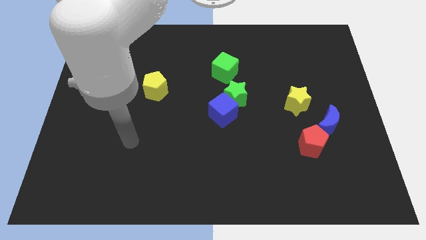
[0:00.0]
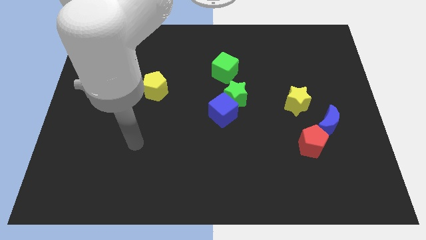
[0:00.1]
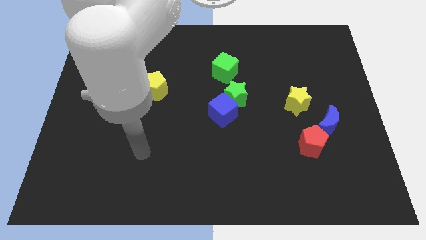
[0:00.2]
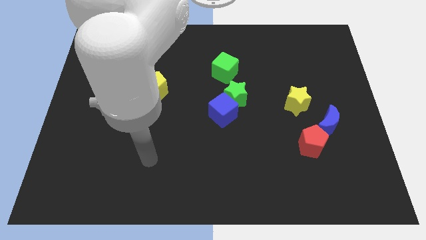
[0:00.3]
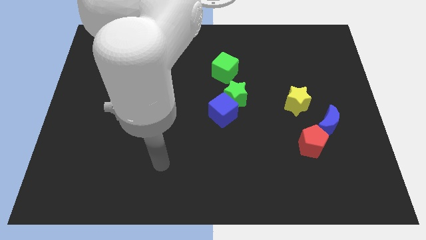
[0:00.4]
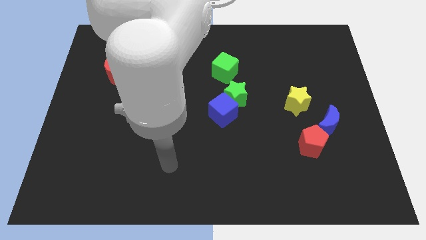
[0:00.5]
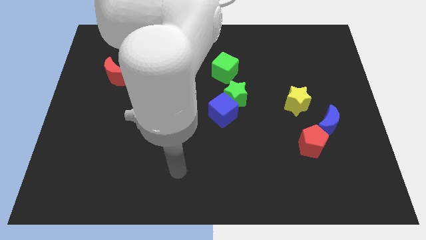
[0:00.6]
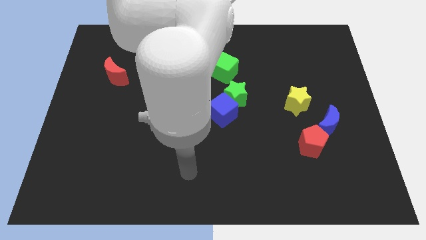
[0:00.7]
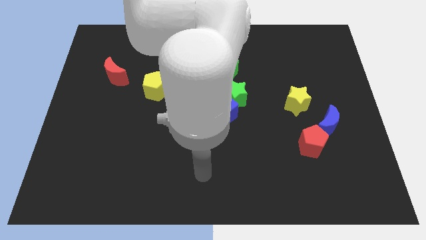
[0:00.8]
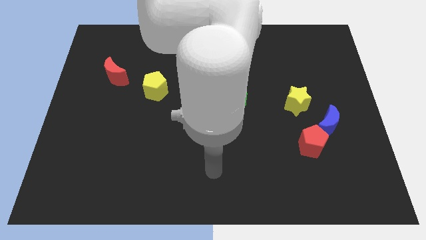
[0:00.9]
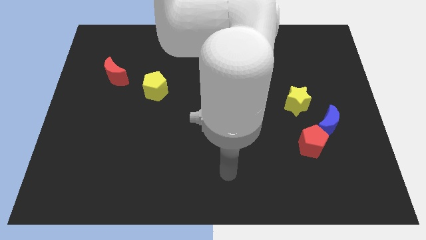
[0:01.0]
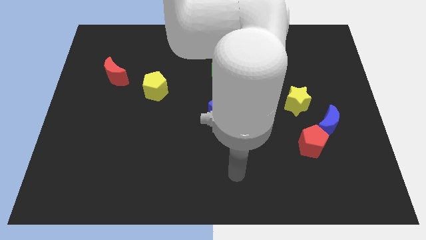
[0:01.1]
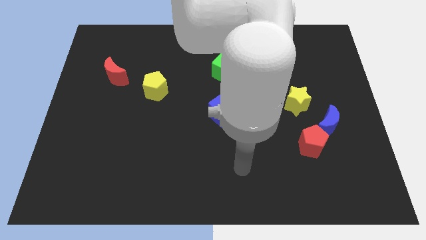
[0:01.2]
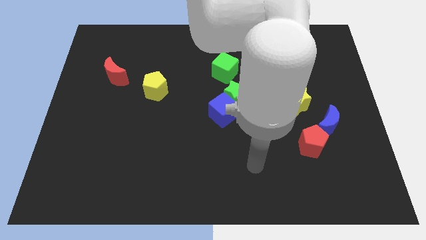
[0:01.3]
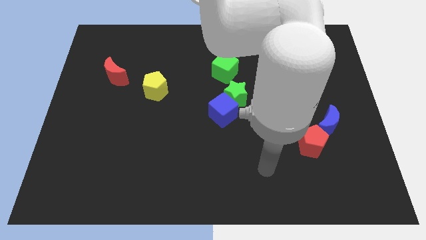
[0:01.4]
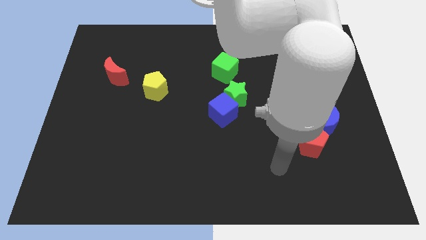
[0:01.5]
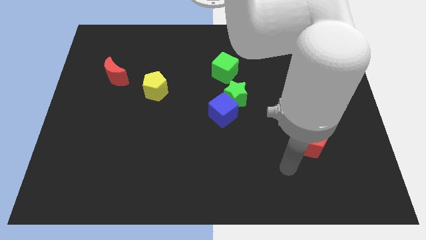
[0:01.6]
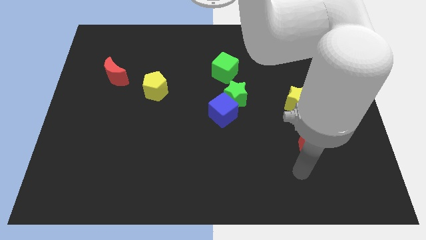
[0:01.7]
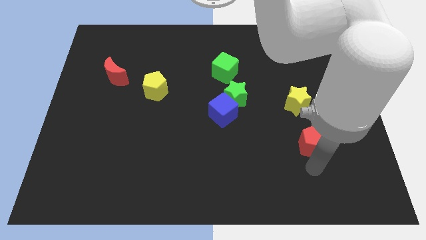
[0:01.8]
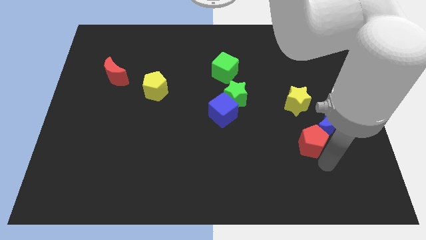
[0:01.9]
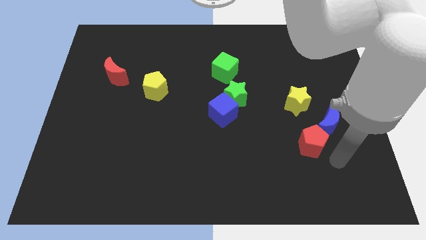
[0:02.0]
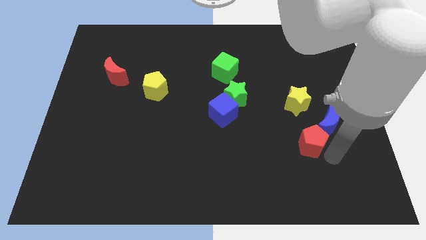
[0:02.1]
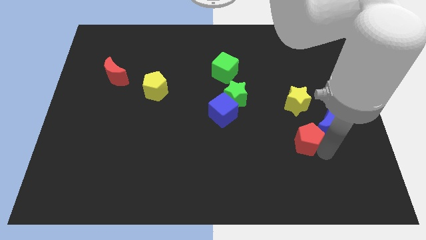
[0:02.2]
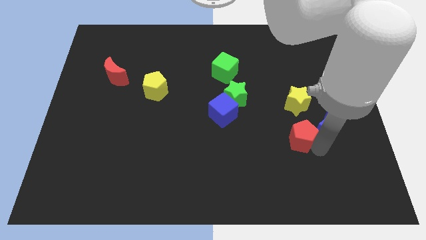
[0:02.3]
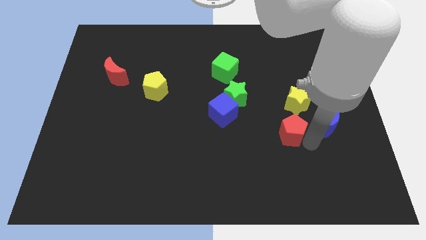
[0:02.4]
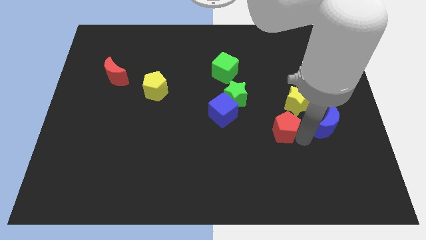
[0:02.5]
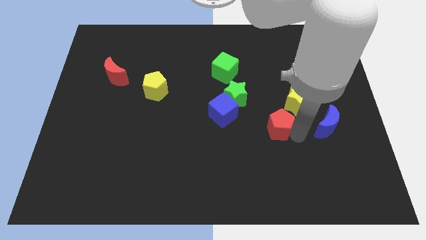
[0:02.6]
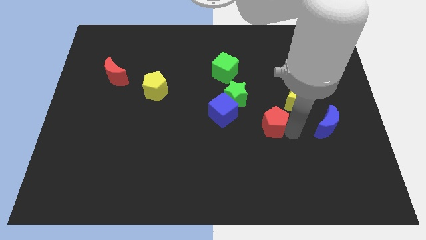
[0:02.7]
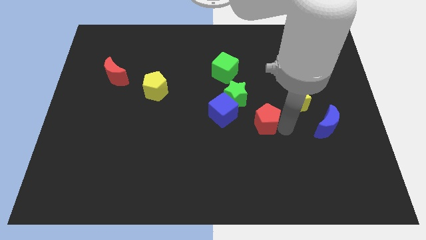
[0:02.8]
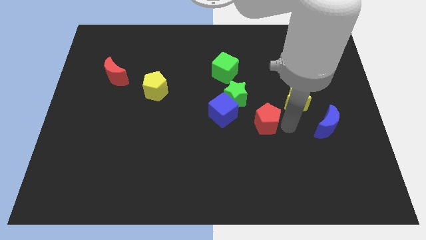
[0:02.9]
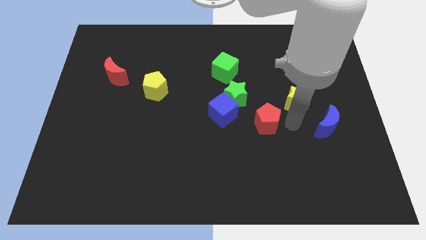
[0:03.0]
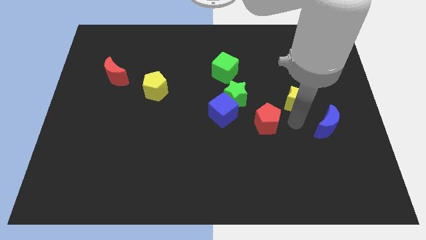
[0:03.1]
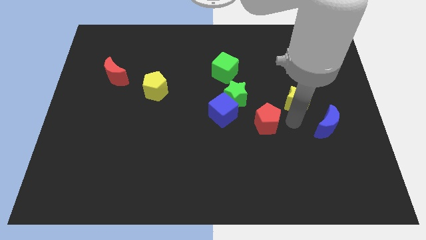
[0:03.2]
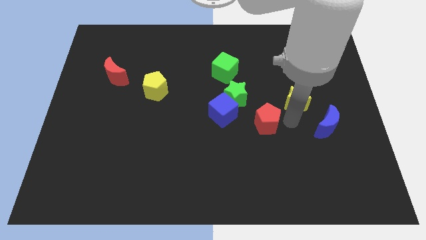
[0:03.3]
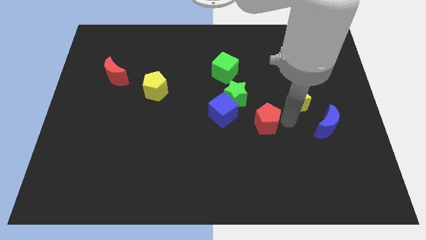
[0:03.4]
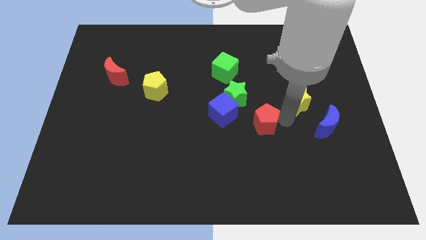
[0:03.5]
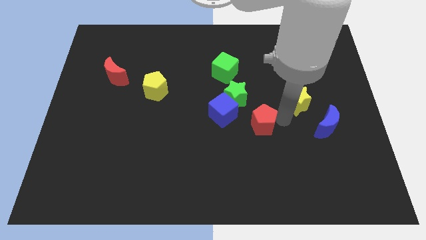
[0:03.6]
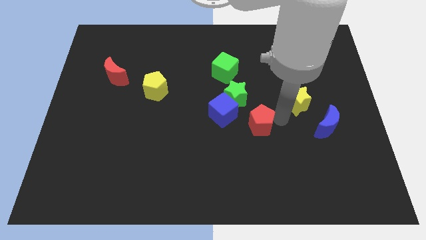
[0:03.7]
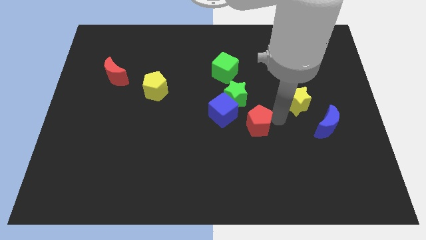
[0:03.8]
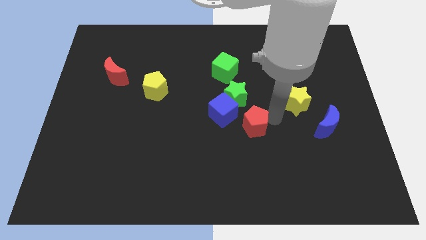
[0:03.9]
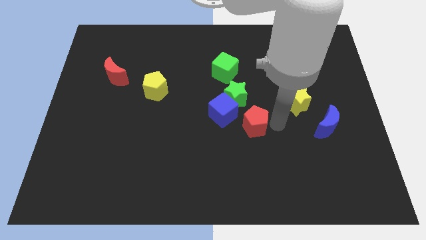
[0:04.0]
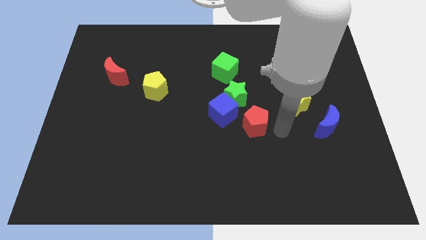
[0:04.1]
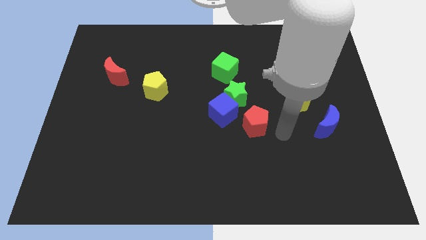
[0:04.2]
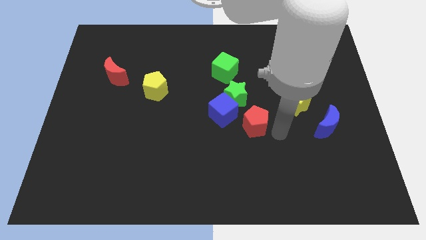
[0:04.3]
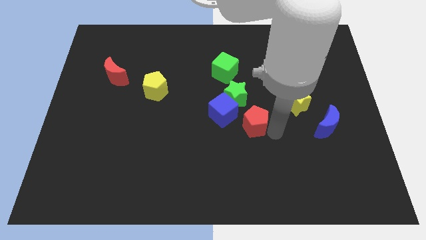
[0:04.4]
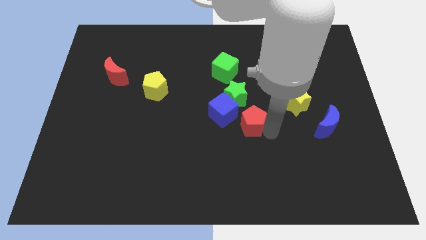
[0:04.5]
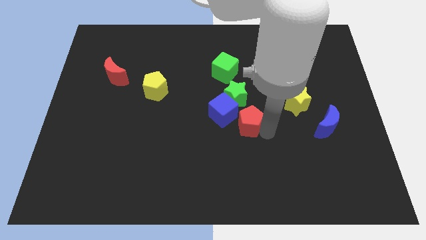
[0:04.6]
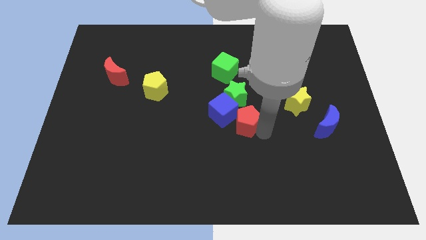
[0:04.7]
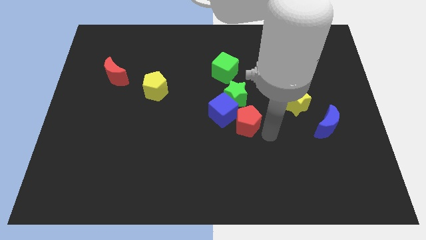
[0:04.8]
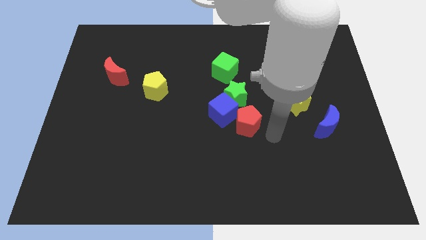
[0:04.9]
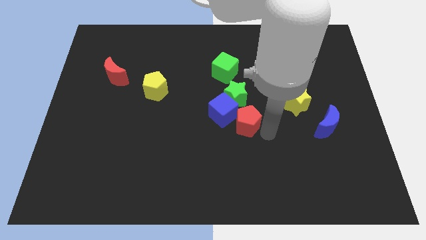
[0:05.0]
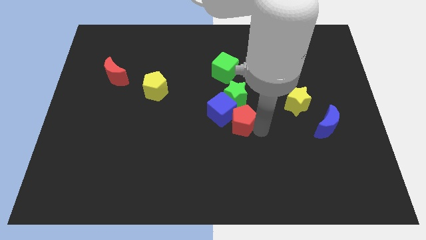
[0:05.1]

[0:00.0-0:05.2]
slide the red pentagon next to the blue cube

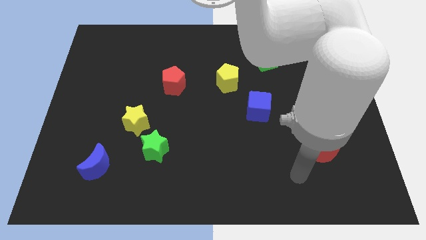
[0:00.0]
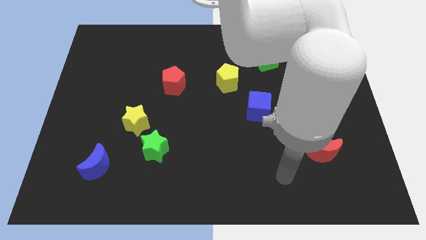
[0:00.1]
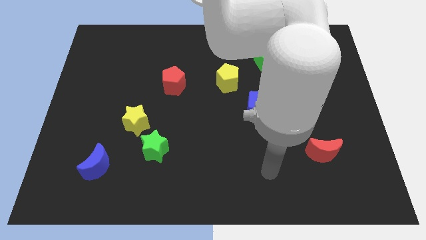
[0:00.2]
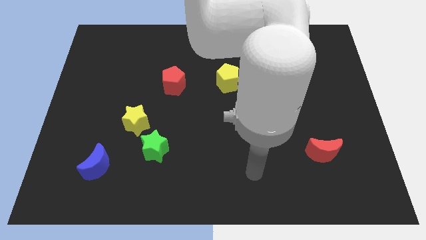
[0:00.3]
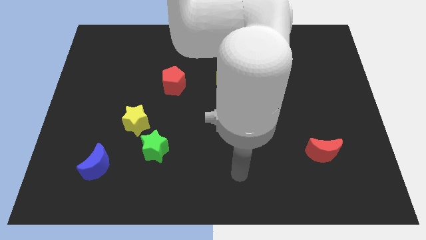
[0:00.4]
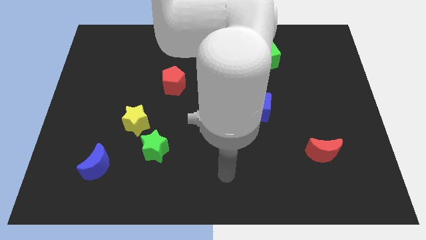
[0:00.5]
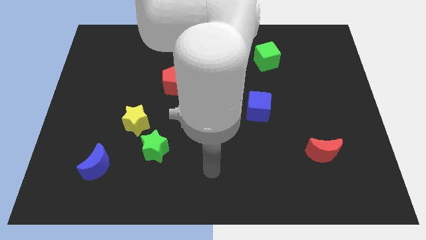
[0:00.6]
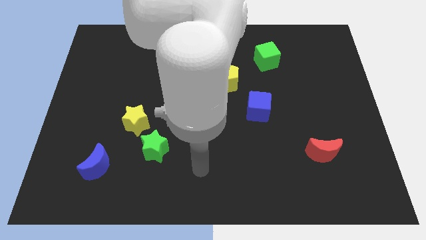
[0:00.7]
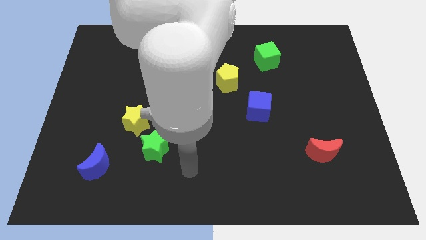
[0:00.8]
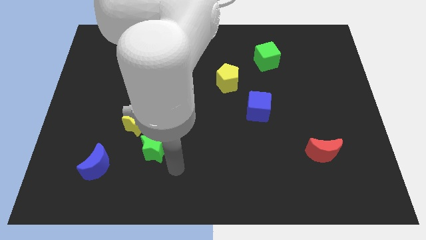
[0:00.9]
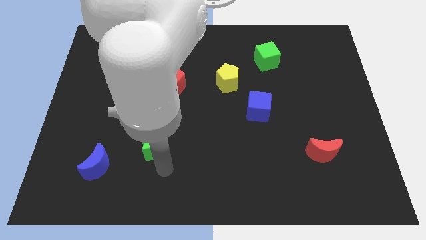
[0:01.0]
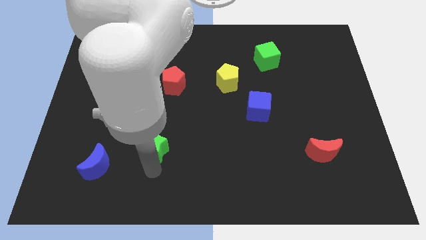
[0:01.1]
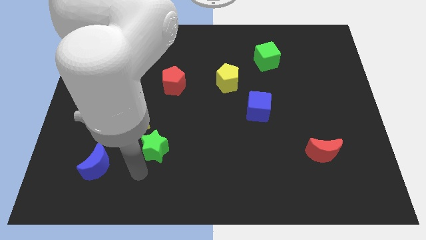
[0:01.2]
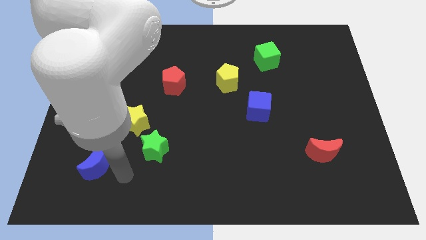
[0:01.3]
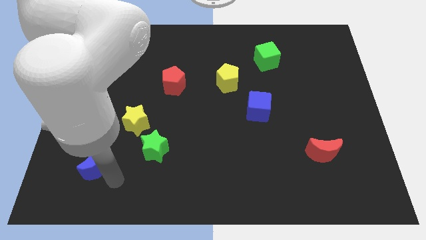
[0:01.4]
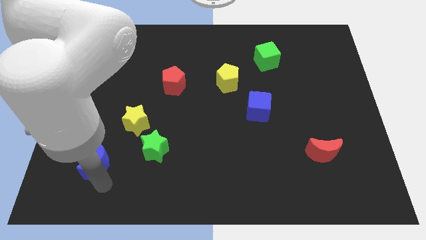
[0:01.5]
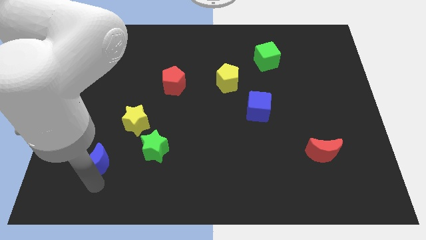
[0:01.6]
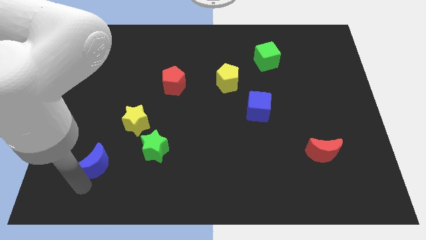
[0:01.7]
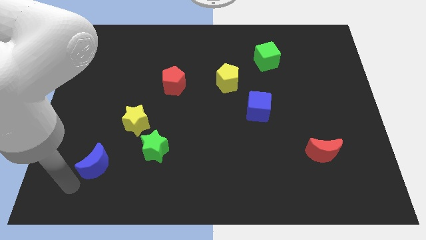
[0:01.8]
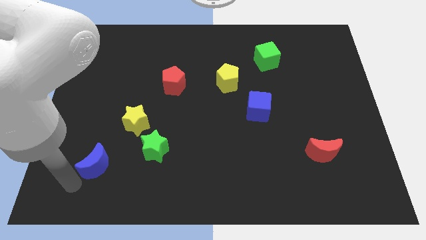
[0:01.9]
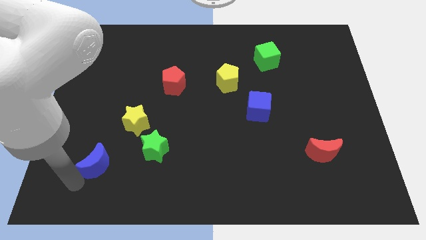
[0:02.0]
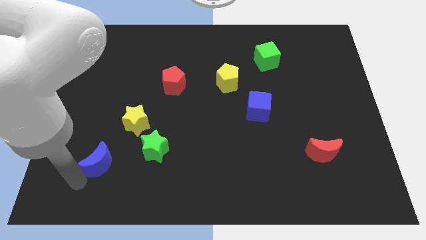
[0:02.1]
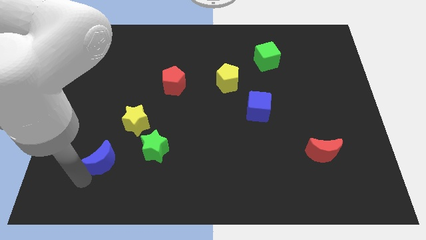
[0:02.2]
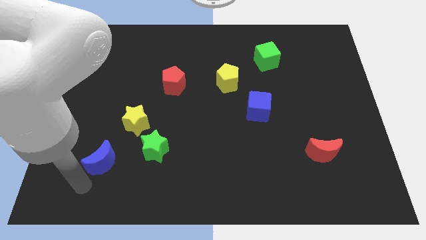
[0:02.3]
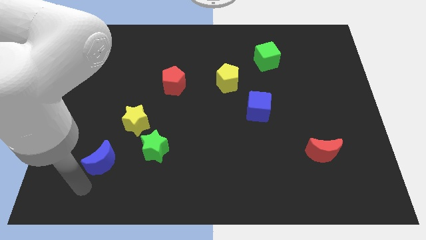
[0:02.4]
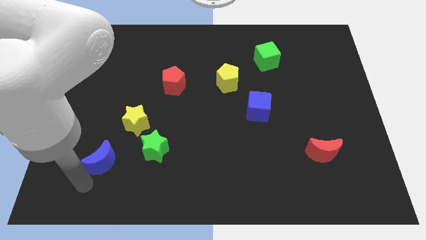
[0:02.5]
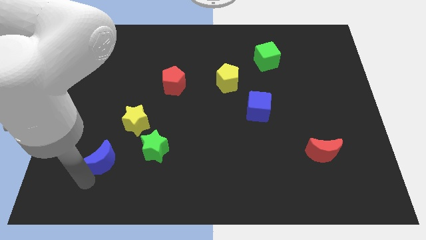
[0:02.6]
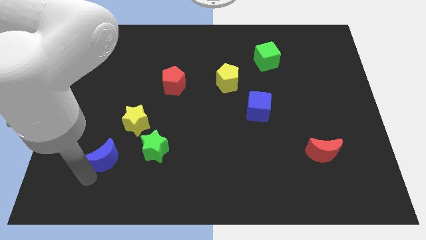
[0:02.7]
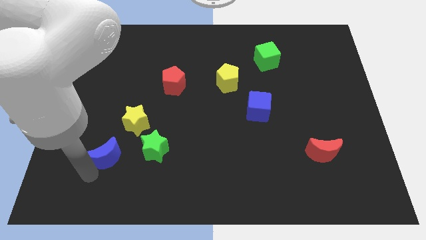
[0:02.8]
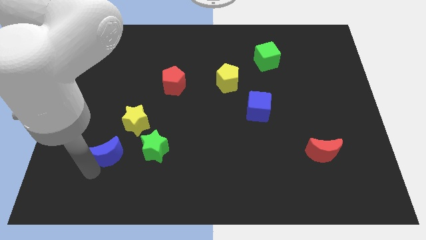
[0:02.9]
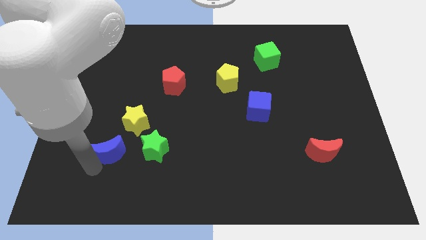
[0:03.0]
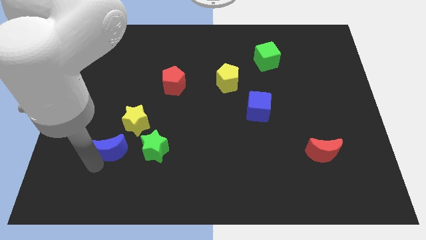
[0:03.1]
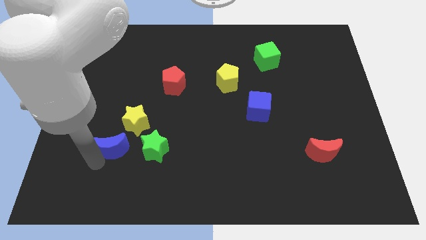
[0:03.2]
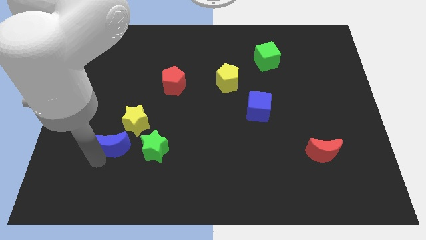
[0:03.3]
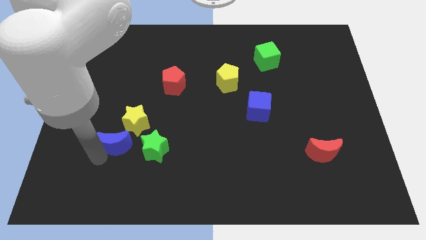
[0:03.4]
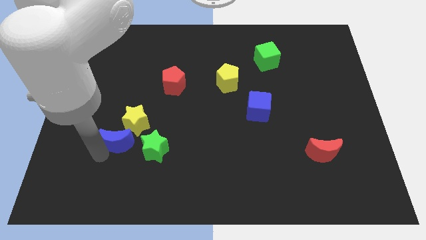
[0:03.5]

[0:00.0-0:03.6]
put the blue moon next to the yellow star
